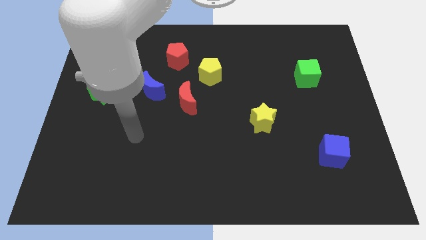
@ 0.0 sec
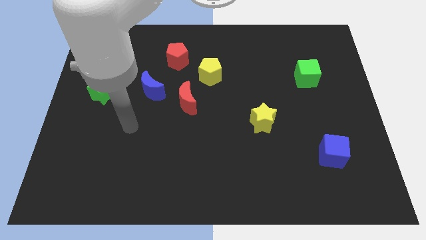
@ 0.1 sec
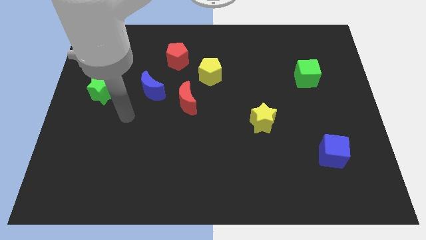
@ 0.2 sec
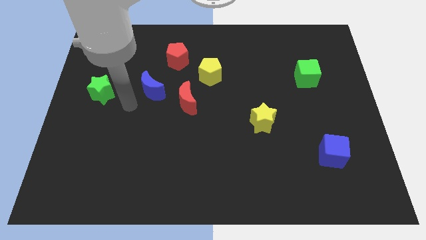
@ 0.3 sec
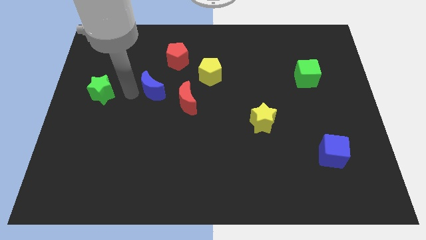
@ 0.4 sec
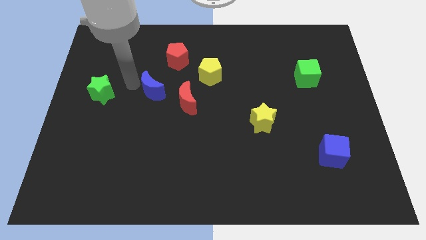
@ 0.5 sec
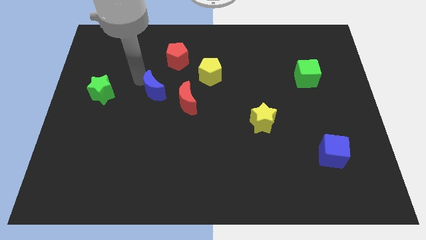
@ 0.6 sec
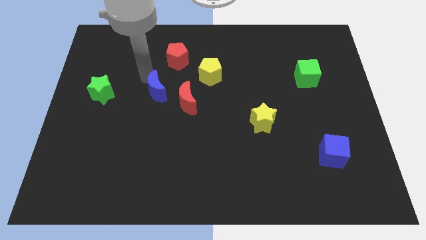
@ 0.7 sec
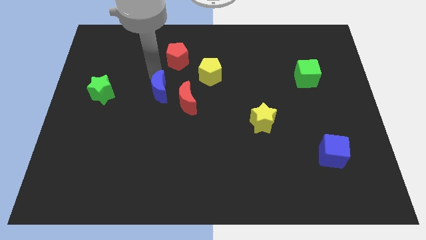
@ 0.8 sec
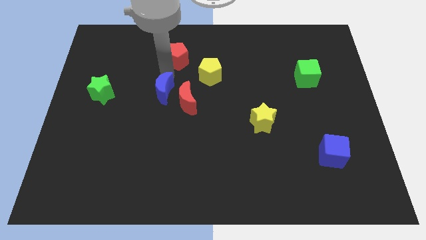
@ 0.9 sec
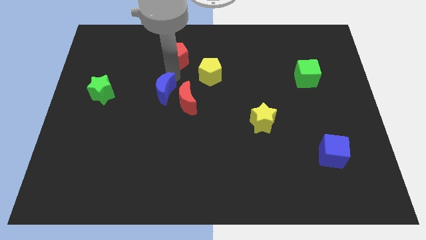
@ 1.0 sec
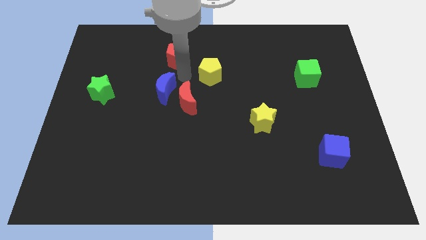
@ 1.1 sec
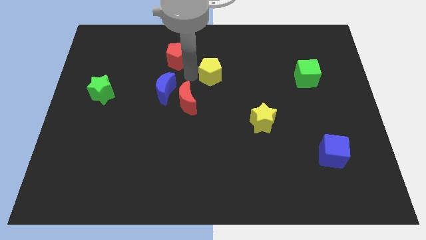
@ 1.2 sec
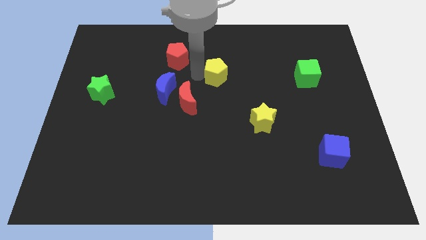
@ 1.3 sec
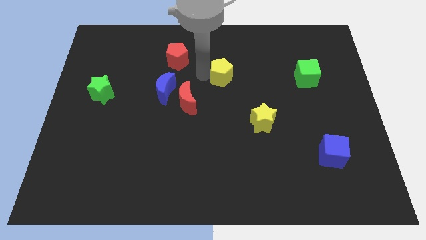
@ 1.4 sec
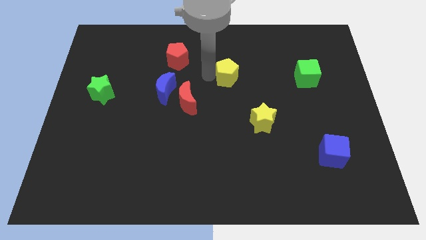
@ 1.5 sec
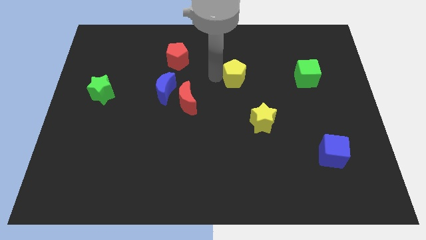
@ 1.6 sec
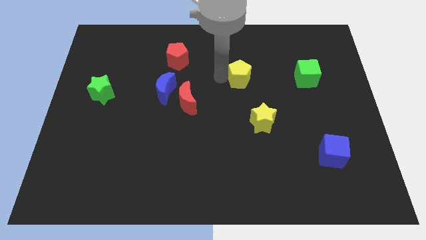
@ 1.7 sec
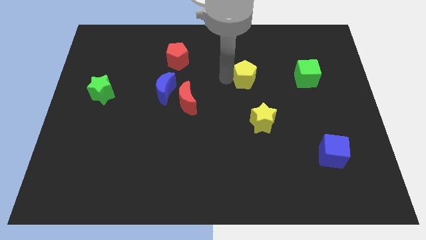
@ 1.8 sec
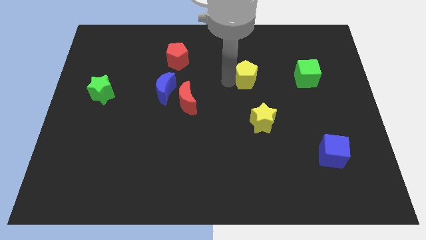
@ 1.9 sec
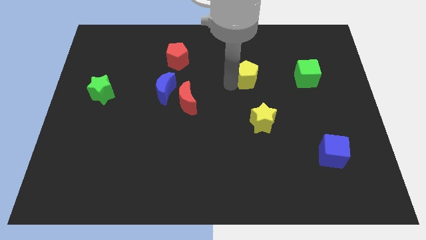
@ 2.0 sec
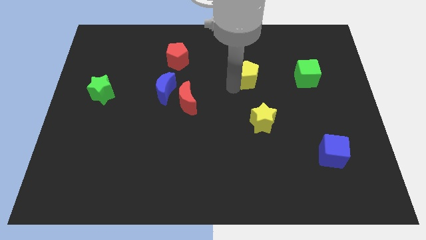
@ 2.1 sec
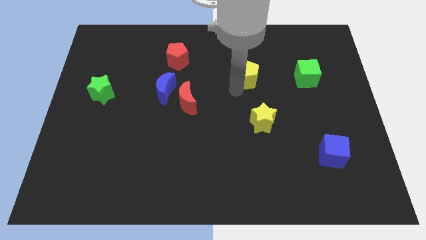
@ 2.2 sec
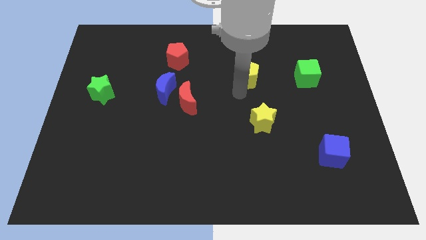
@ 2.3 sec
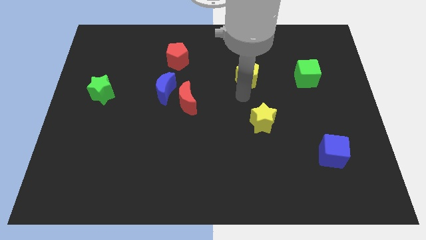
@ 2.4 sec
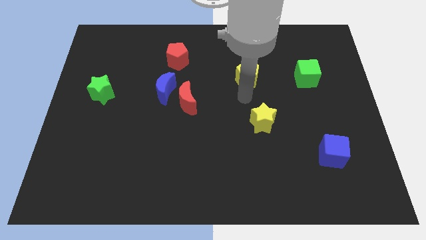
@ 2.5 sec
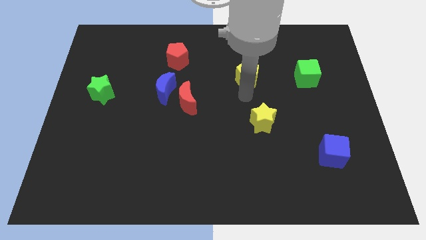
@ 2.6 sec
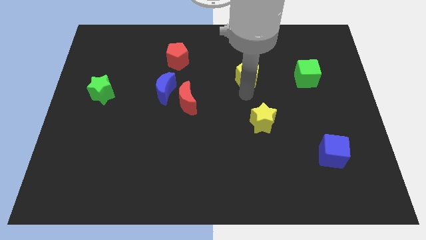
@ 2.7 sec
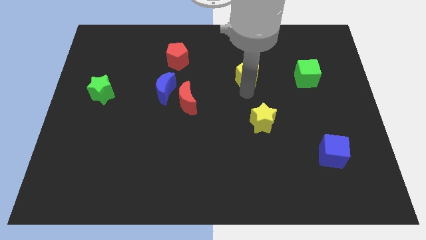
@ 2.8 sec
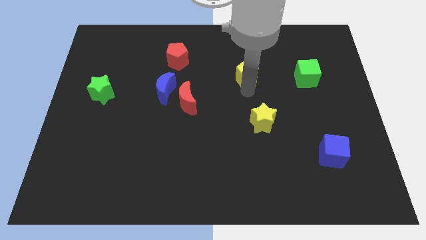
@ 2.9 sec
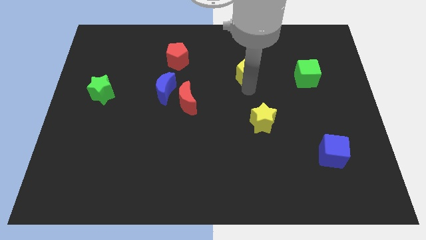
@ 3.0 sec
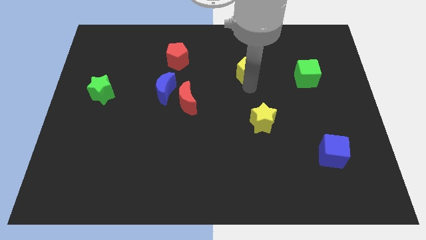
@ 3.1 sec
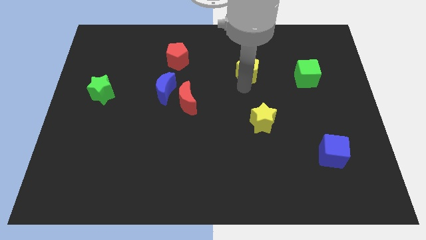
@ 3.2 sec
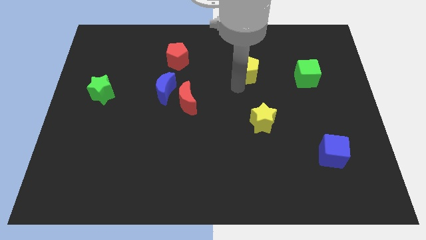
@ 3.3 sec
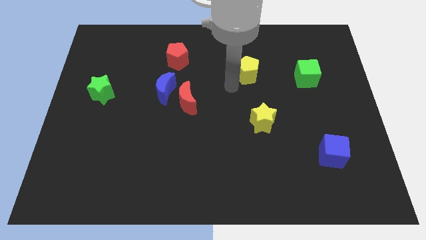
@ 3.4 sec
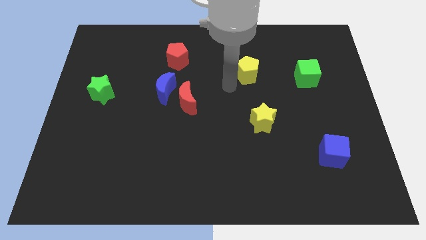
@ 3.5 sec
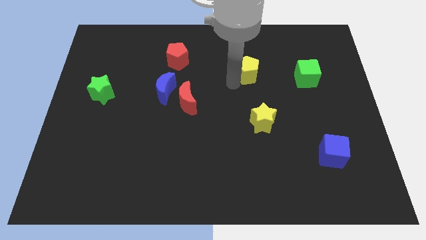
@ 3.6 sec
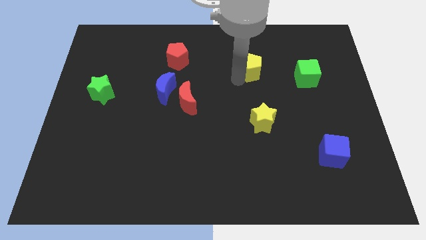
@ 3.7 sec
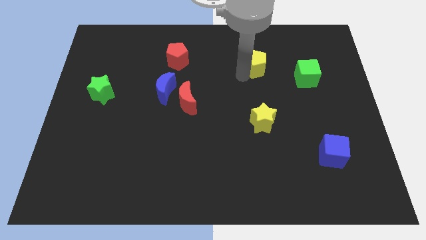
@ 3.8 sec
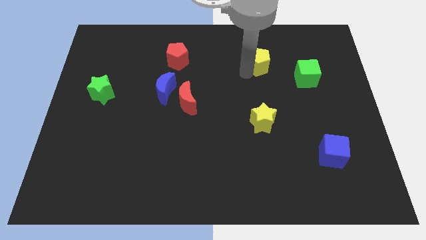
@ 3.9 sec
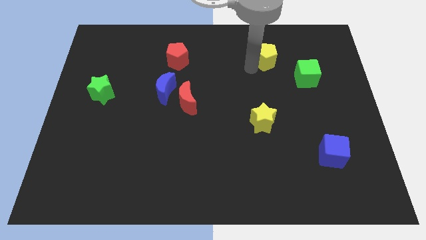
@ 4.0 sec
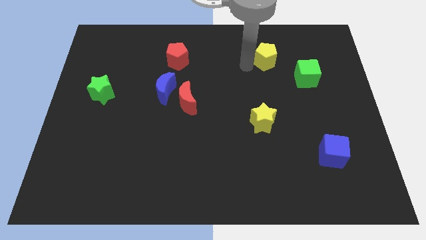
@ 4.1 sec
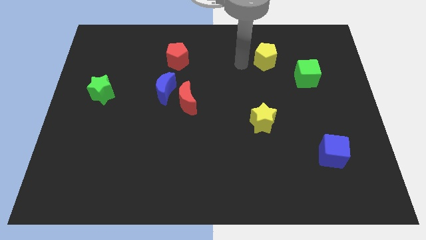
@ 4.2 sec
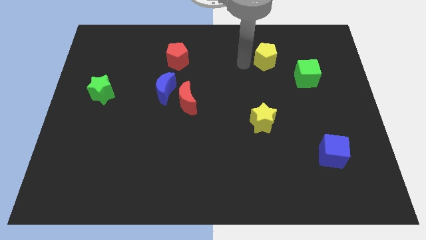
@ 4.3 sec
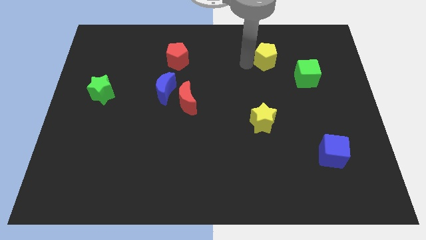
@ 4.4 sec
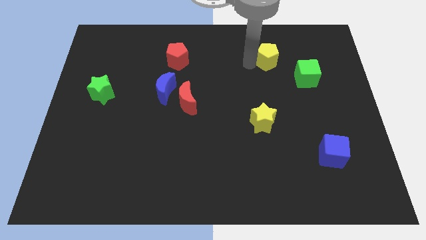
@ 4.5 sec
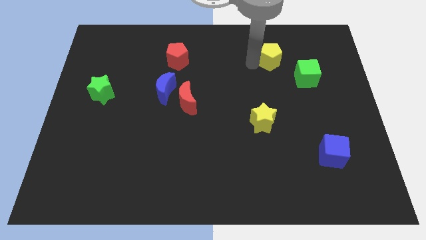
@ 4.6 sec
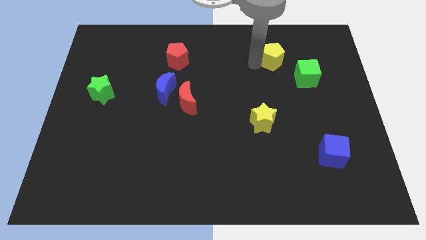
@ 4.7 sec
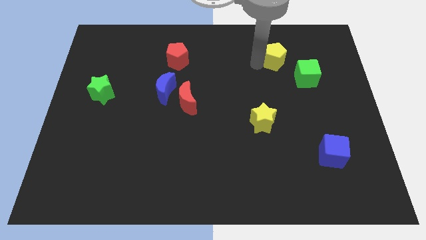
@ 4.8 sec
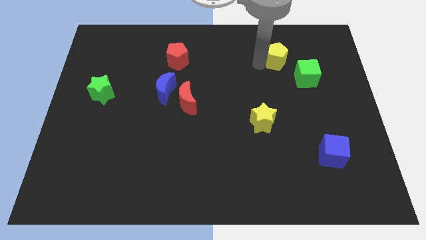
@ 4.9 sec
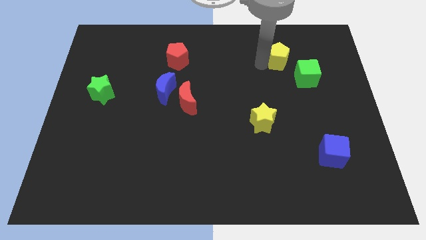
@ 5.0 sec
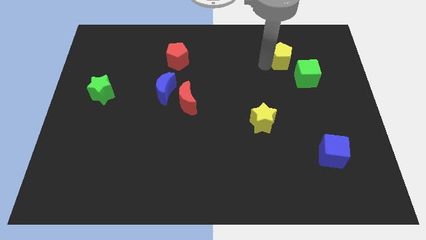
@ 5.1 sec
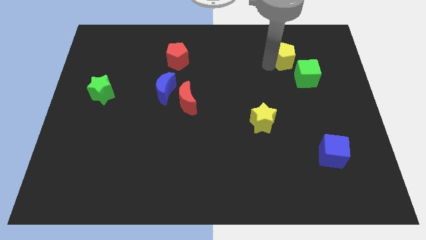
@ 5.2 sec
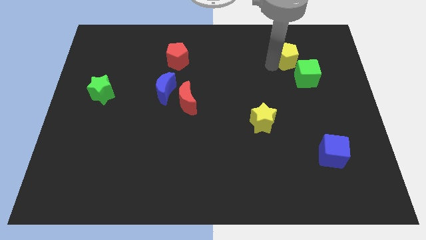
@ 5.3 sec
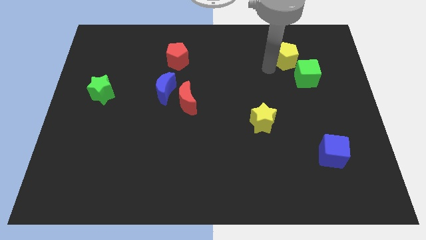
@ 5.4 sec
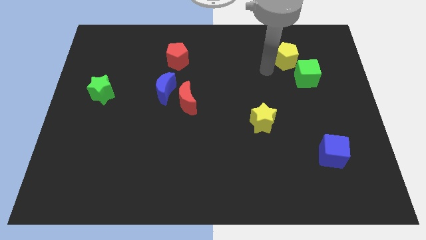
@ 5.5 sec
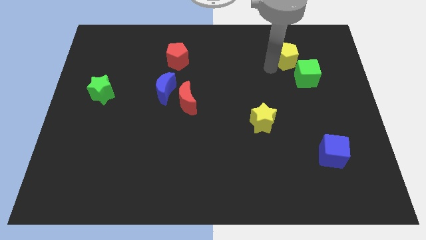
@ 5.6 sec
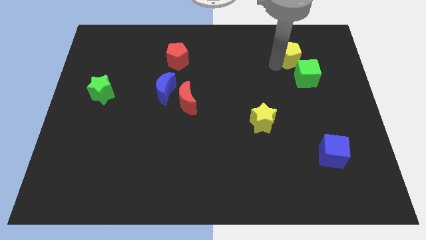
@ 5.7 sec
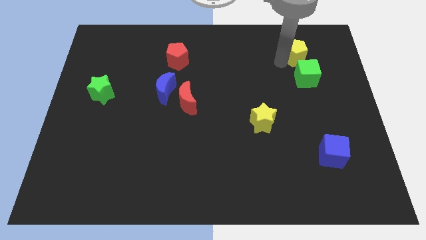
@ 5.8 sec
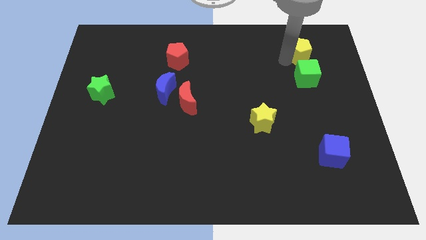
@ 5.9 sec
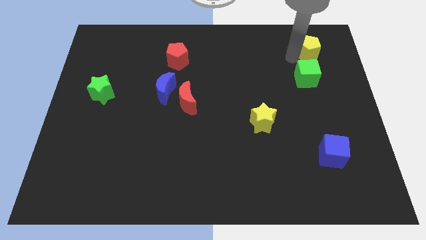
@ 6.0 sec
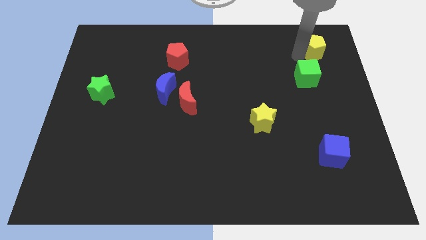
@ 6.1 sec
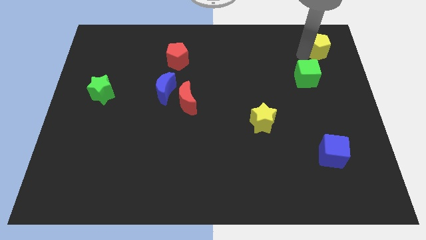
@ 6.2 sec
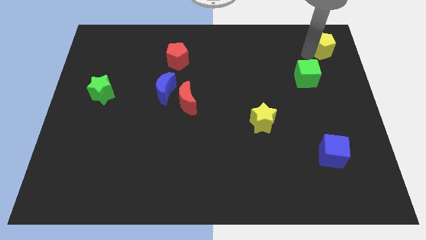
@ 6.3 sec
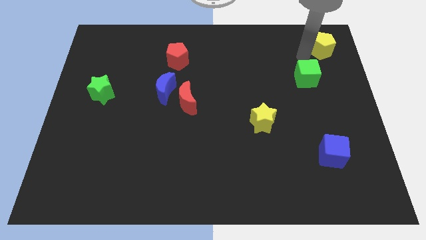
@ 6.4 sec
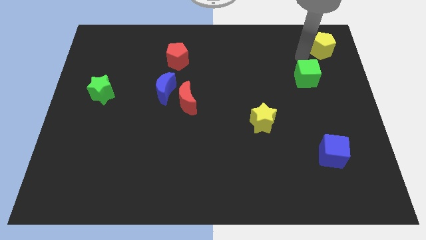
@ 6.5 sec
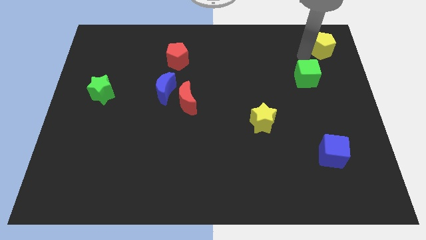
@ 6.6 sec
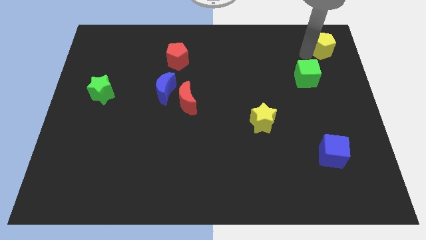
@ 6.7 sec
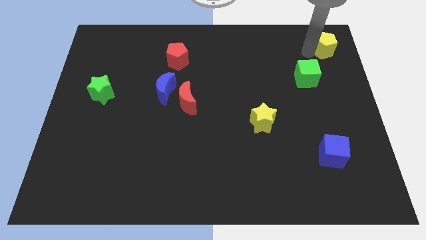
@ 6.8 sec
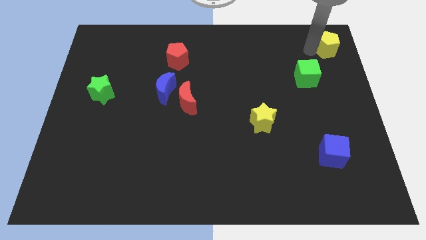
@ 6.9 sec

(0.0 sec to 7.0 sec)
put the yellow pentagon to the upper right corner
